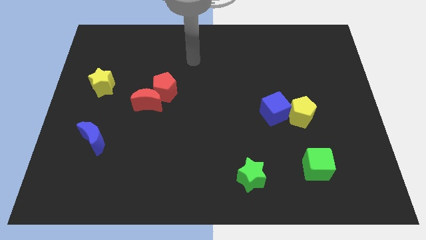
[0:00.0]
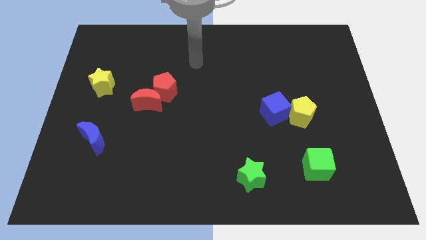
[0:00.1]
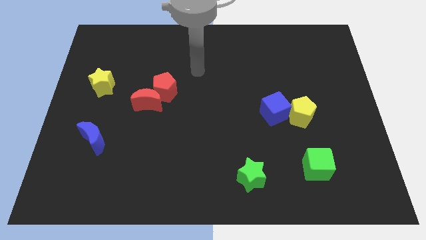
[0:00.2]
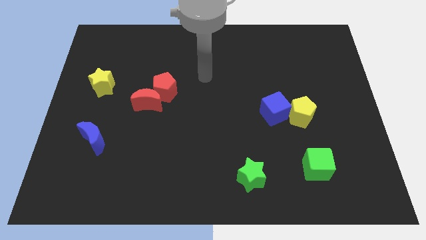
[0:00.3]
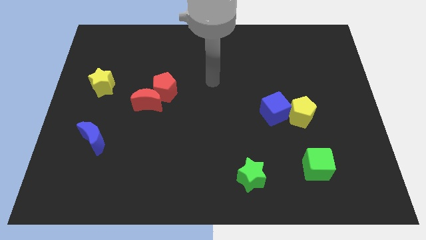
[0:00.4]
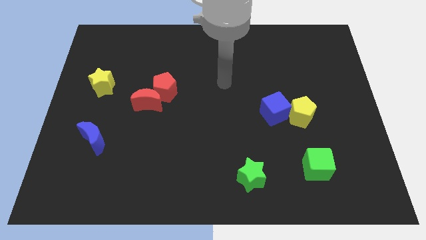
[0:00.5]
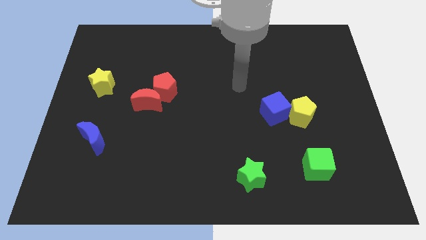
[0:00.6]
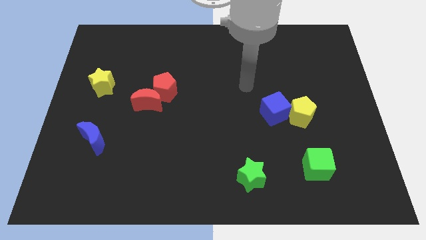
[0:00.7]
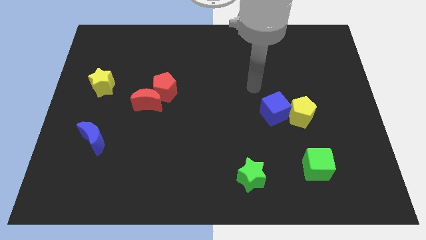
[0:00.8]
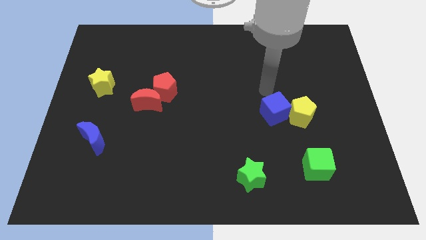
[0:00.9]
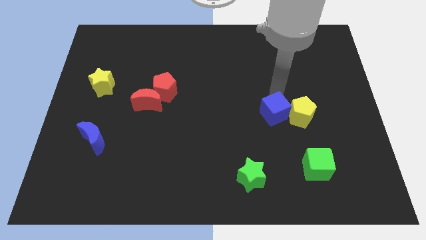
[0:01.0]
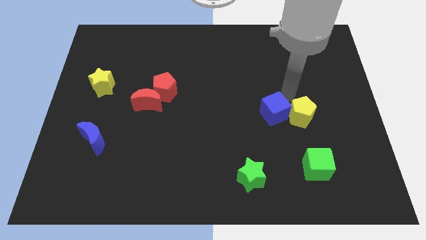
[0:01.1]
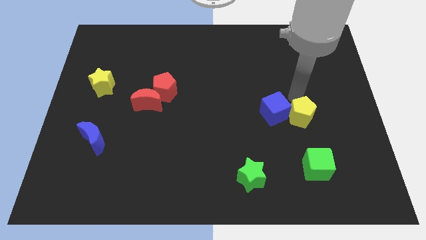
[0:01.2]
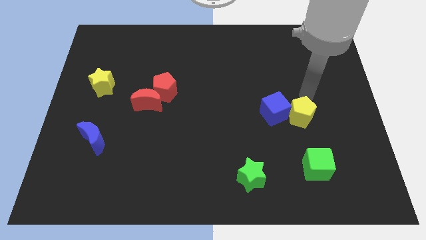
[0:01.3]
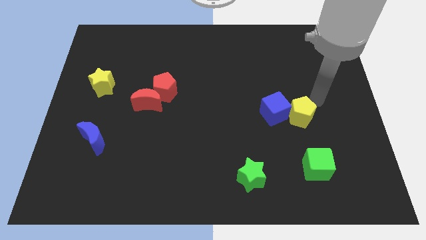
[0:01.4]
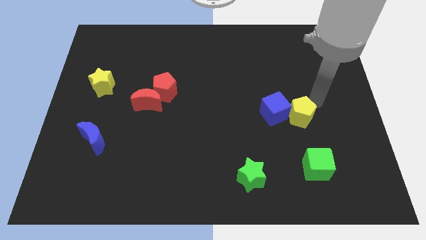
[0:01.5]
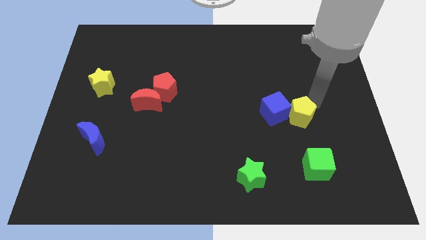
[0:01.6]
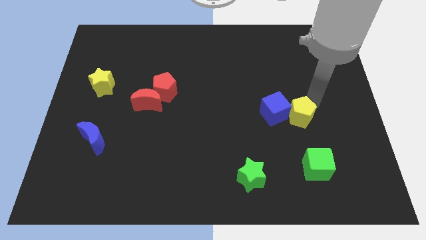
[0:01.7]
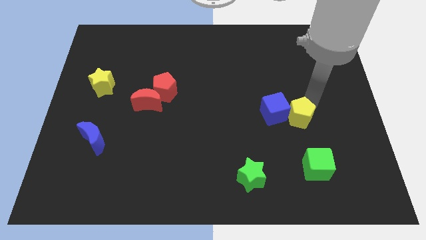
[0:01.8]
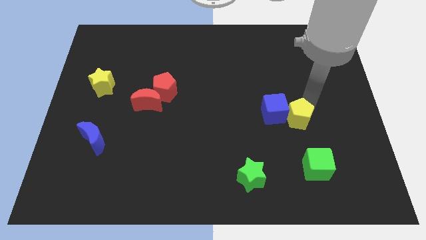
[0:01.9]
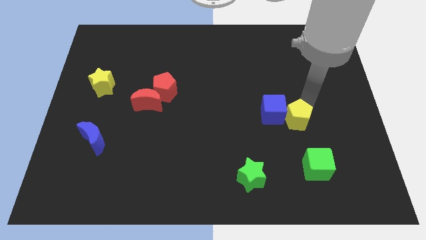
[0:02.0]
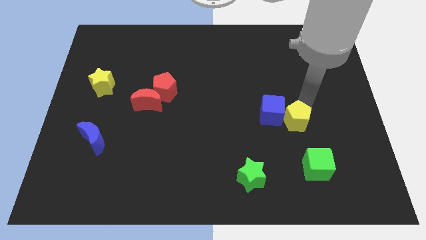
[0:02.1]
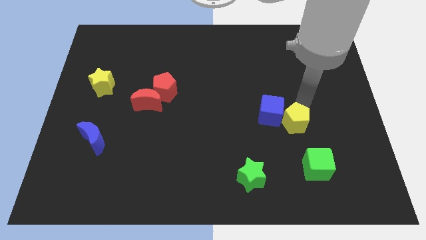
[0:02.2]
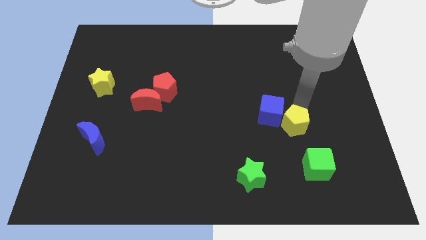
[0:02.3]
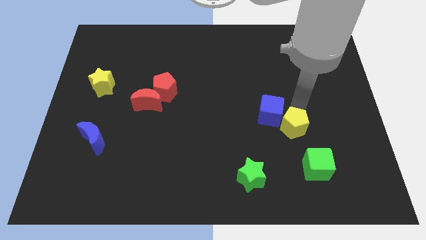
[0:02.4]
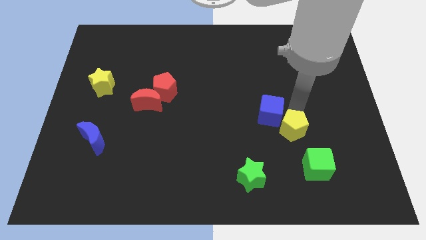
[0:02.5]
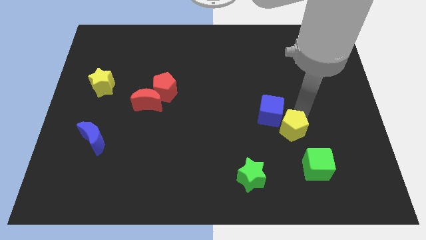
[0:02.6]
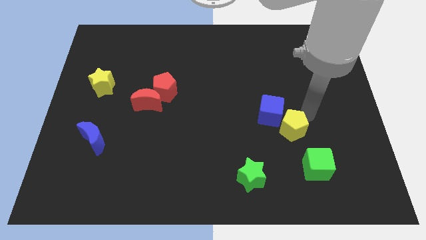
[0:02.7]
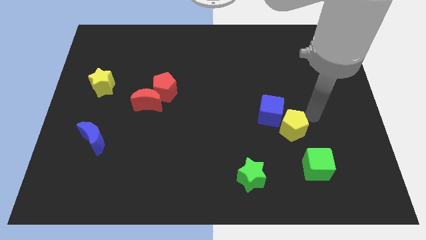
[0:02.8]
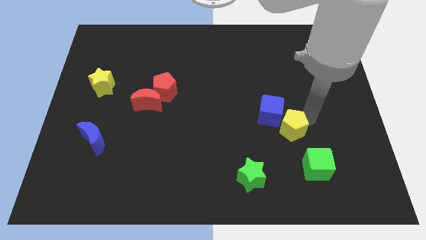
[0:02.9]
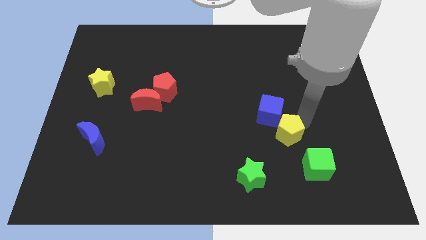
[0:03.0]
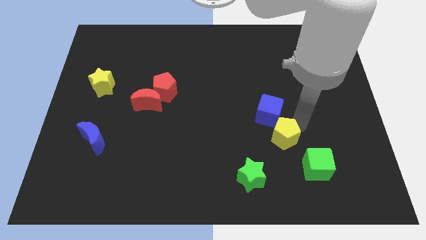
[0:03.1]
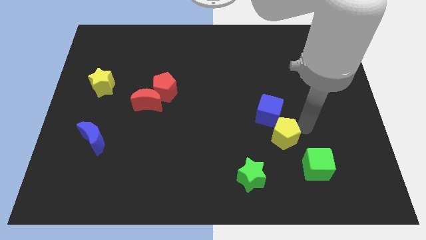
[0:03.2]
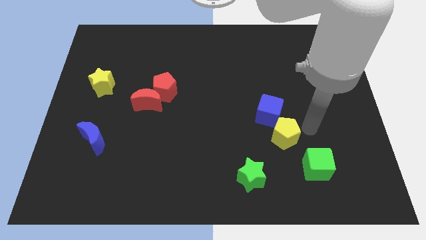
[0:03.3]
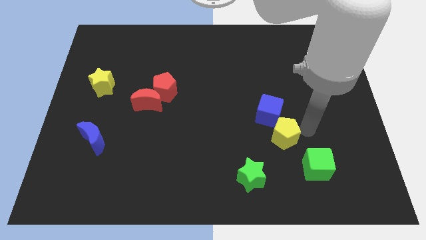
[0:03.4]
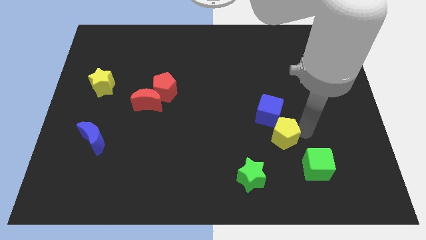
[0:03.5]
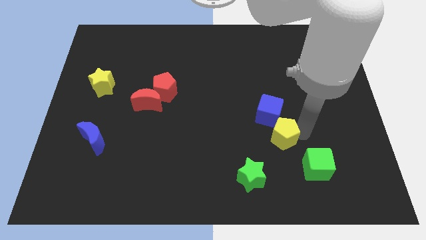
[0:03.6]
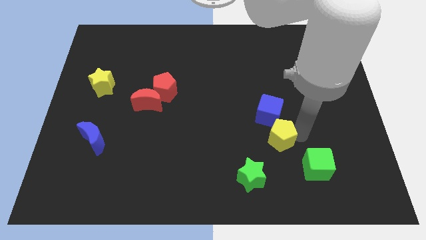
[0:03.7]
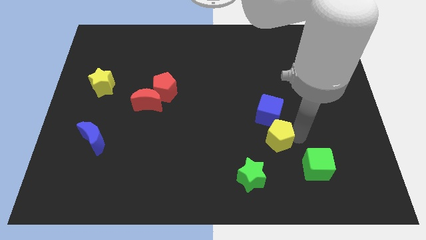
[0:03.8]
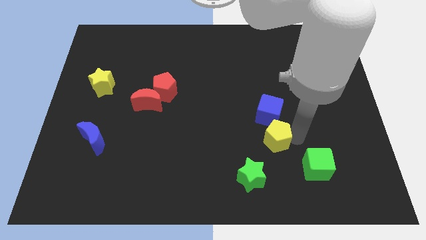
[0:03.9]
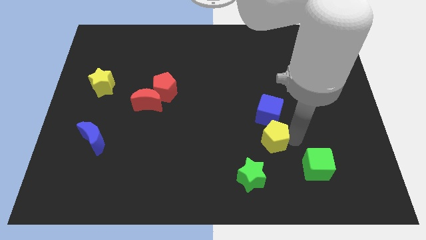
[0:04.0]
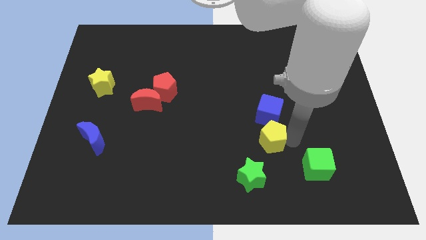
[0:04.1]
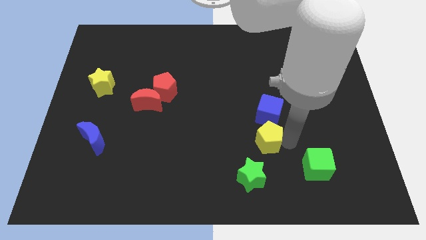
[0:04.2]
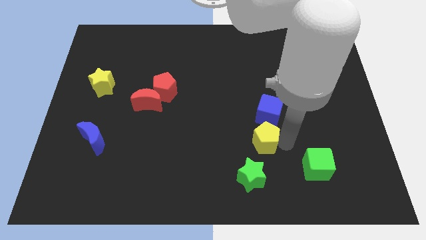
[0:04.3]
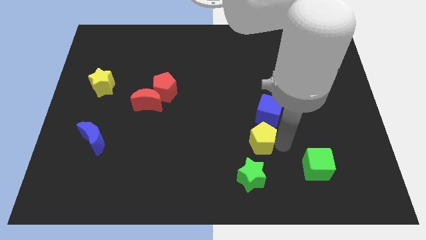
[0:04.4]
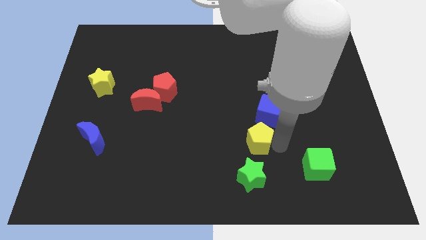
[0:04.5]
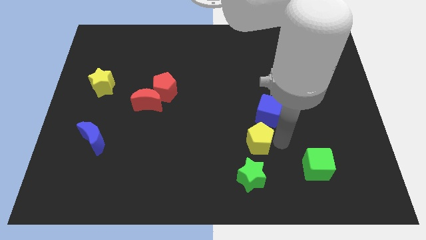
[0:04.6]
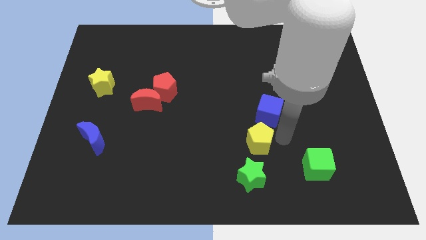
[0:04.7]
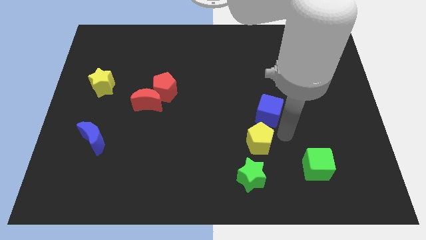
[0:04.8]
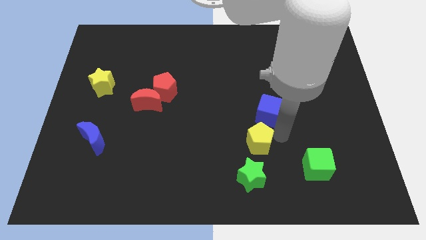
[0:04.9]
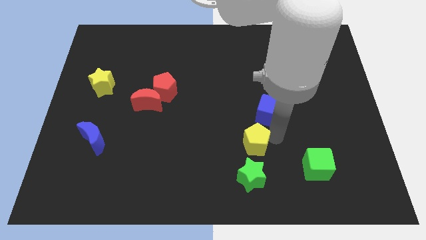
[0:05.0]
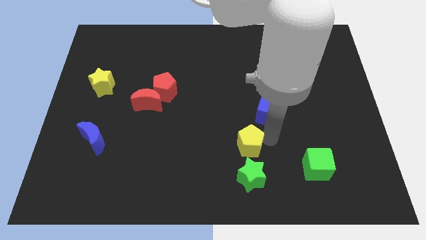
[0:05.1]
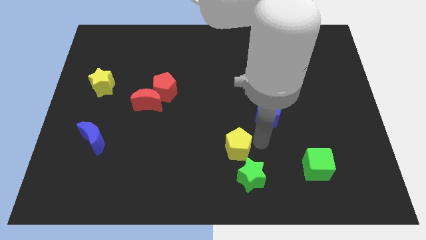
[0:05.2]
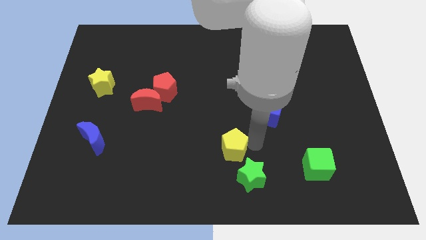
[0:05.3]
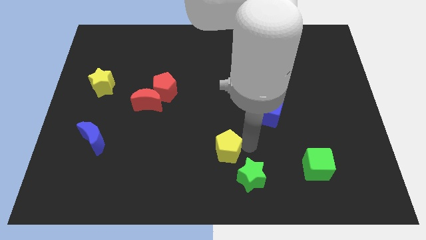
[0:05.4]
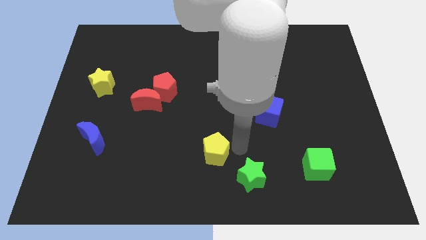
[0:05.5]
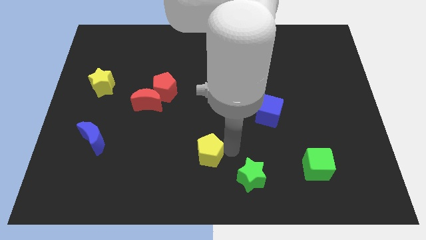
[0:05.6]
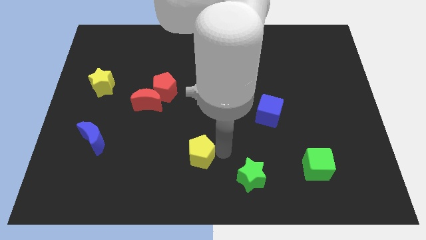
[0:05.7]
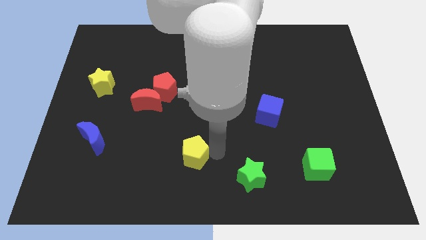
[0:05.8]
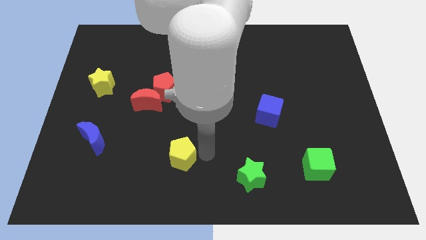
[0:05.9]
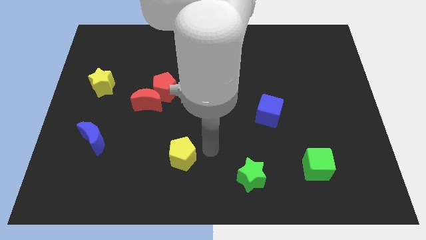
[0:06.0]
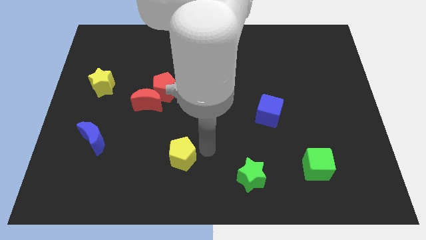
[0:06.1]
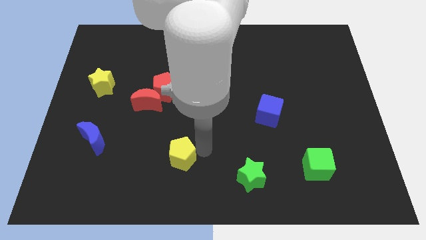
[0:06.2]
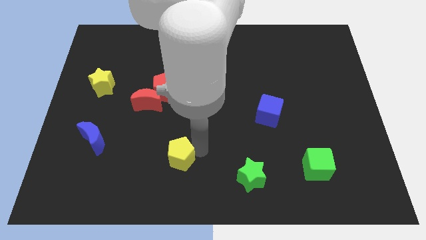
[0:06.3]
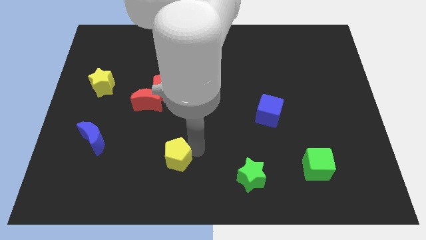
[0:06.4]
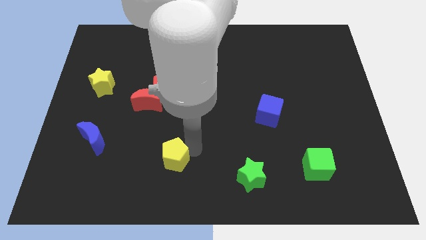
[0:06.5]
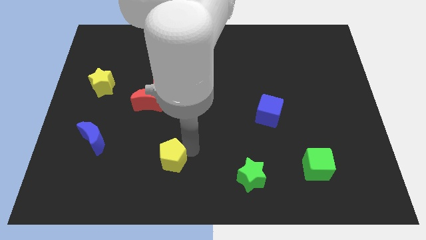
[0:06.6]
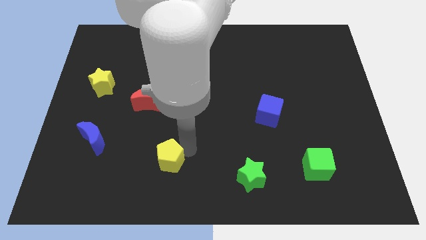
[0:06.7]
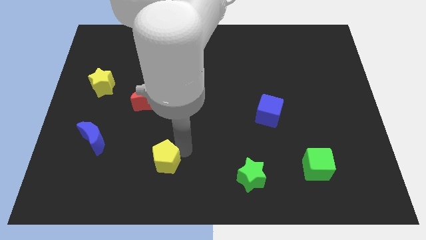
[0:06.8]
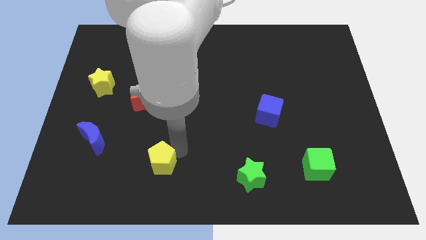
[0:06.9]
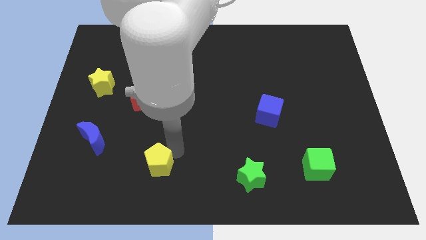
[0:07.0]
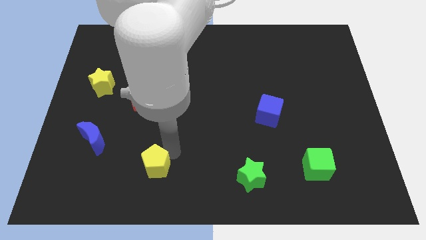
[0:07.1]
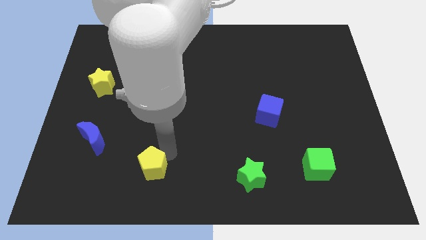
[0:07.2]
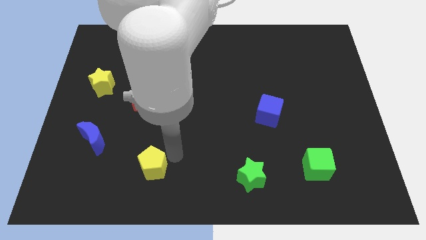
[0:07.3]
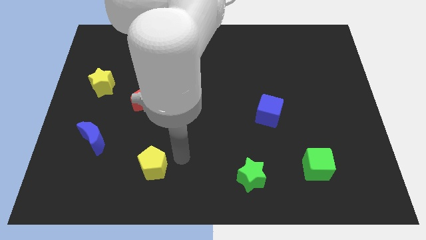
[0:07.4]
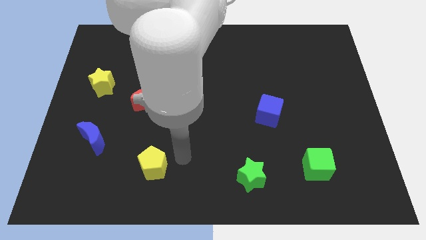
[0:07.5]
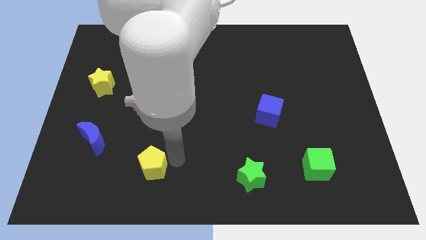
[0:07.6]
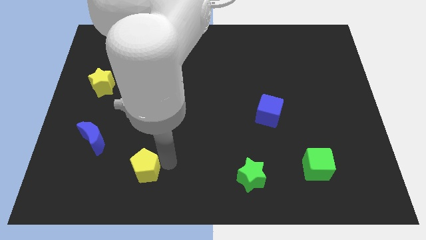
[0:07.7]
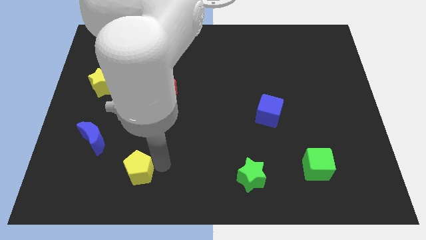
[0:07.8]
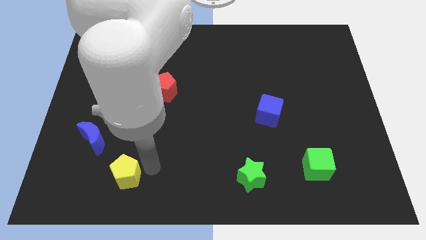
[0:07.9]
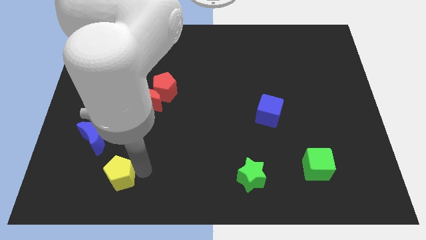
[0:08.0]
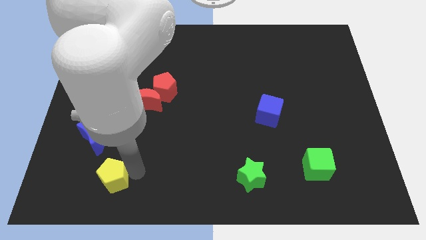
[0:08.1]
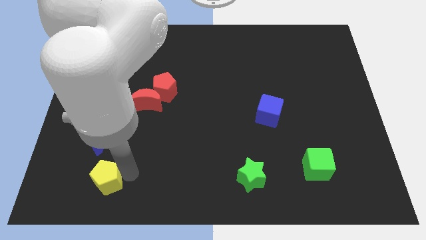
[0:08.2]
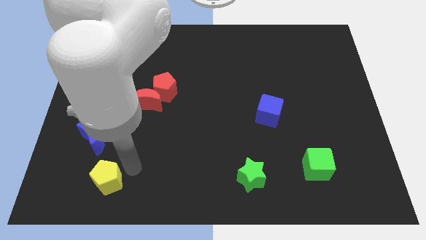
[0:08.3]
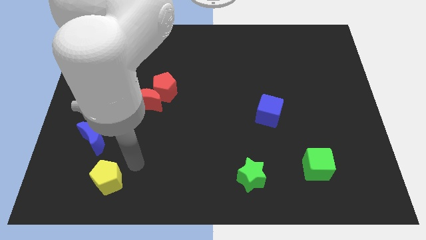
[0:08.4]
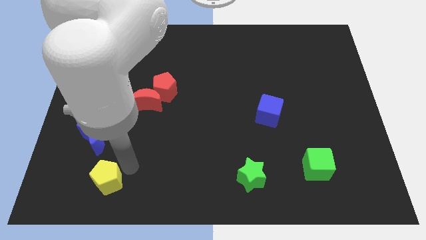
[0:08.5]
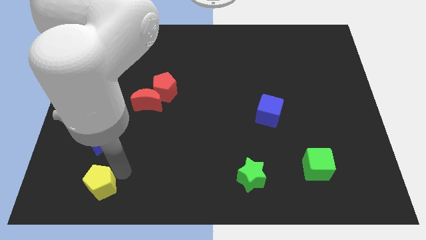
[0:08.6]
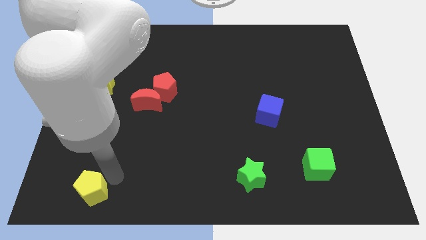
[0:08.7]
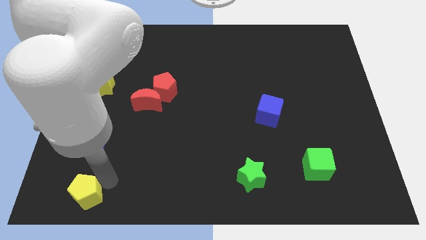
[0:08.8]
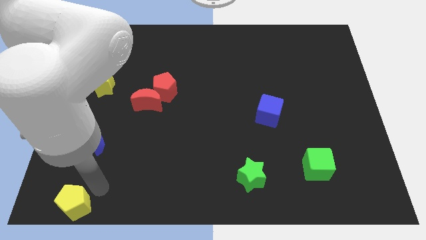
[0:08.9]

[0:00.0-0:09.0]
put the yellow pentagon to the bottom left of the board
